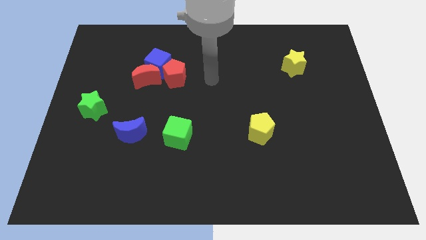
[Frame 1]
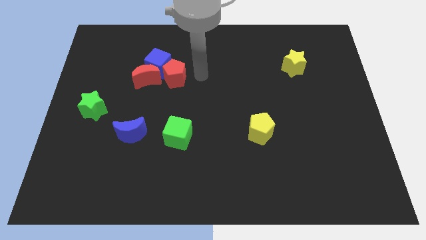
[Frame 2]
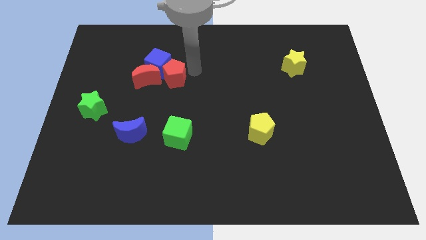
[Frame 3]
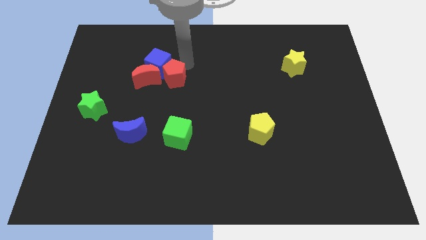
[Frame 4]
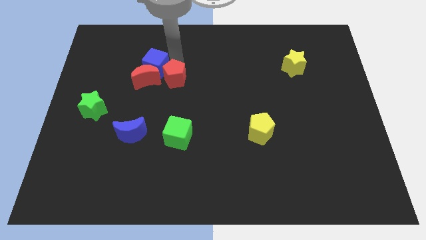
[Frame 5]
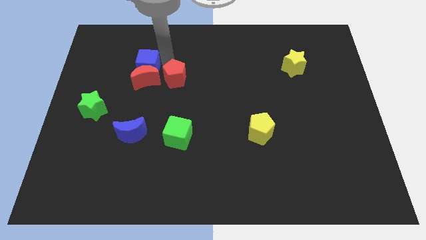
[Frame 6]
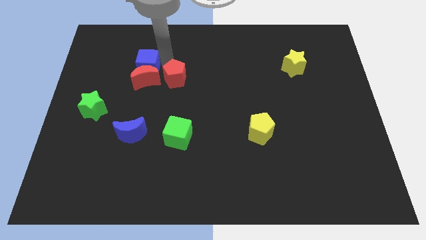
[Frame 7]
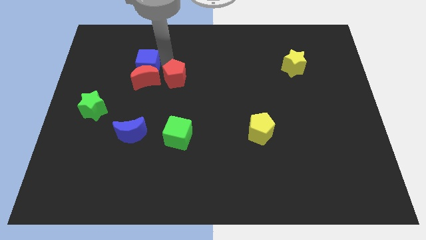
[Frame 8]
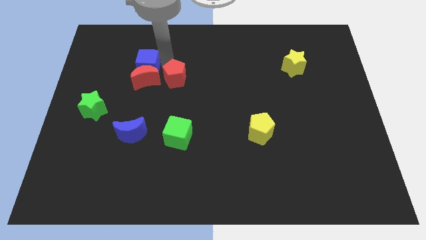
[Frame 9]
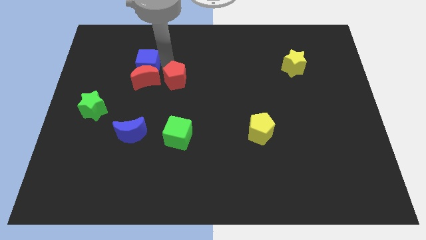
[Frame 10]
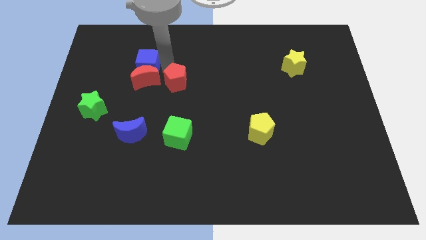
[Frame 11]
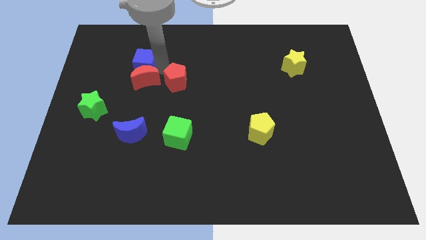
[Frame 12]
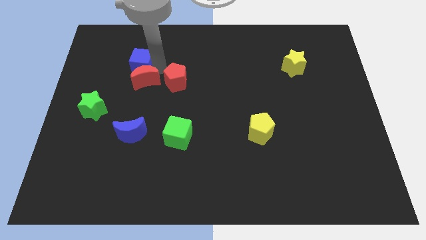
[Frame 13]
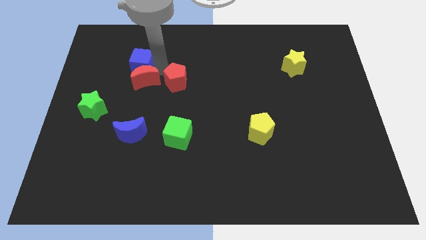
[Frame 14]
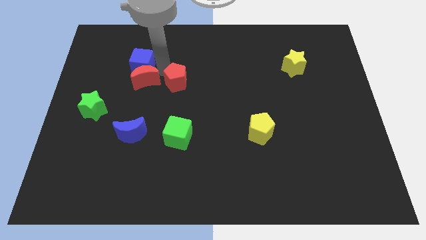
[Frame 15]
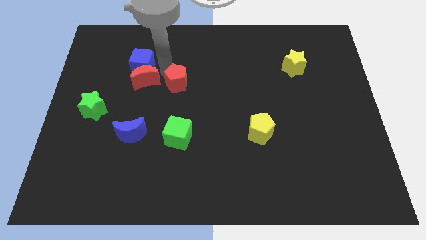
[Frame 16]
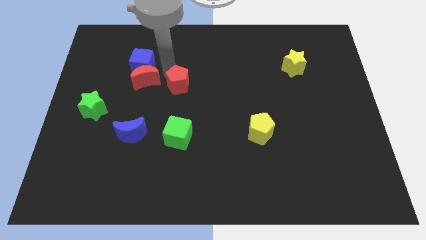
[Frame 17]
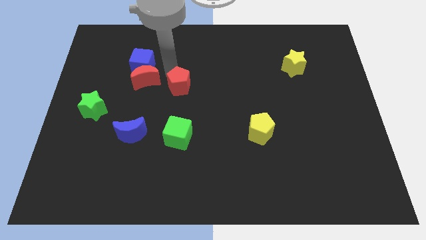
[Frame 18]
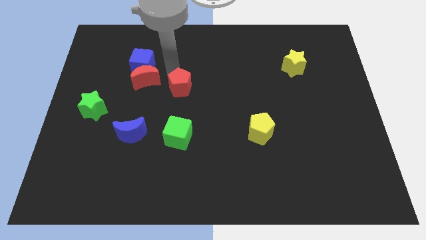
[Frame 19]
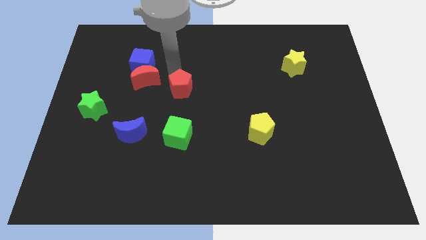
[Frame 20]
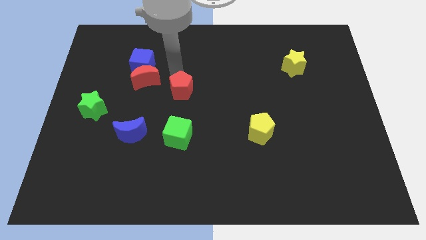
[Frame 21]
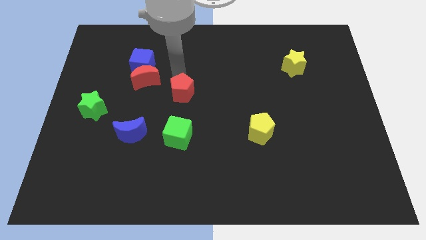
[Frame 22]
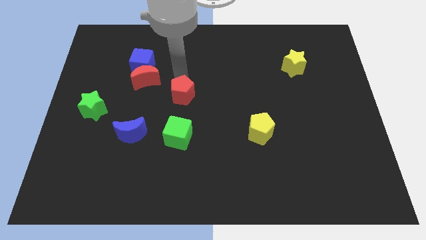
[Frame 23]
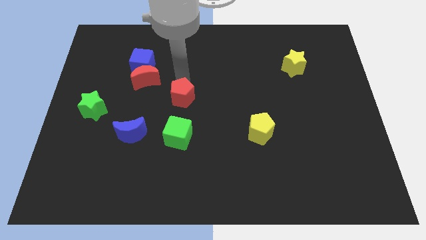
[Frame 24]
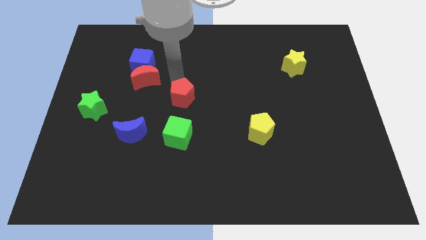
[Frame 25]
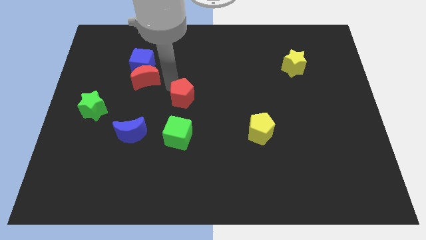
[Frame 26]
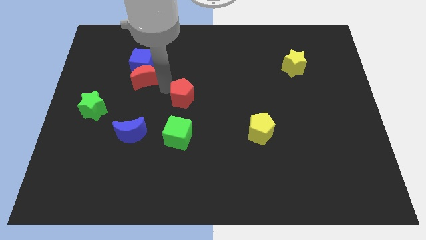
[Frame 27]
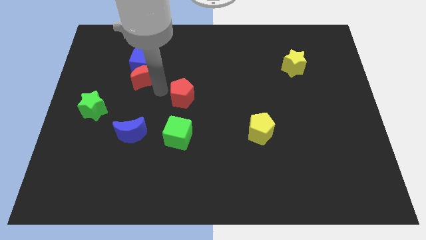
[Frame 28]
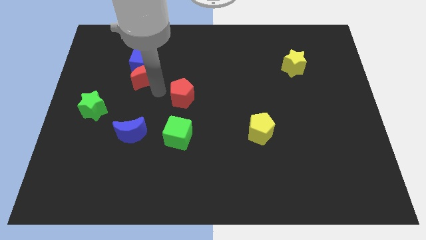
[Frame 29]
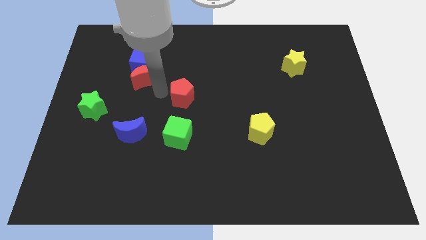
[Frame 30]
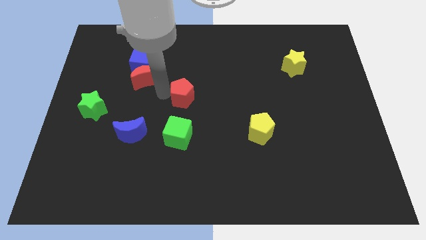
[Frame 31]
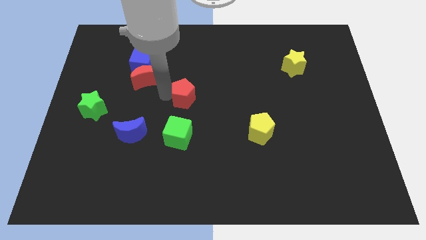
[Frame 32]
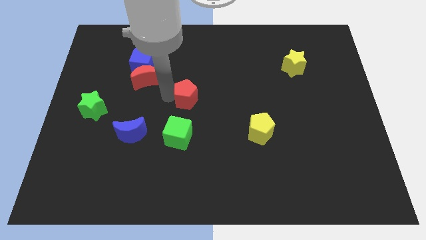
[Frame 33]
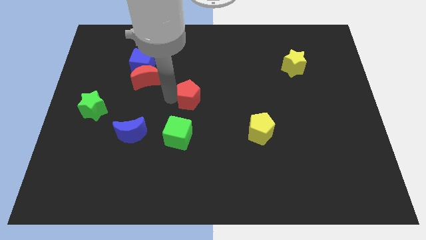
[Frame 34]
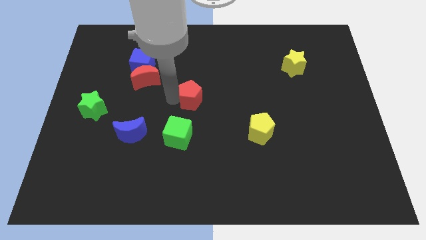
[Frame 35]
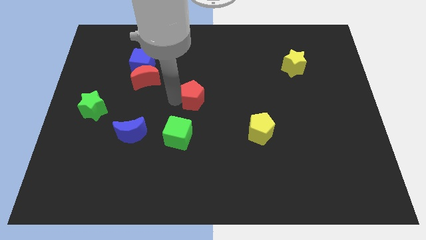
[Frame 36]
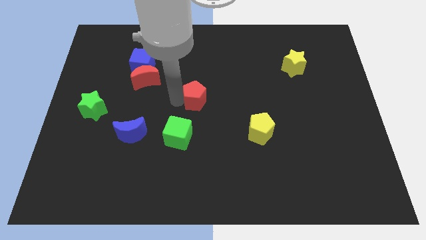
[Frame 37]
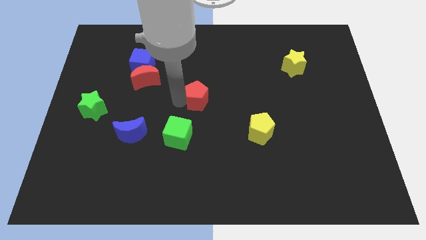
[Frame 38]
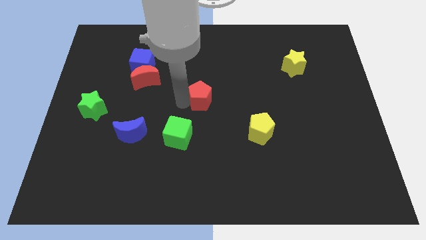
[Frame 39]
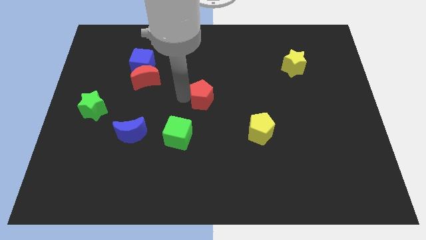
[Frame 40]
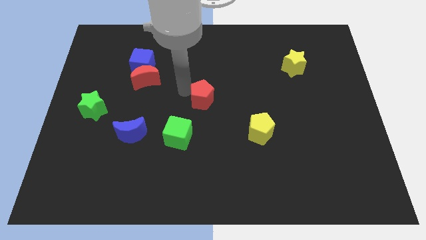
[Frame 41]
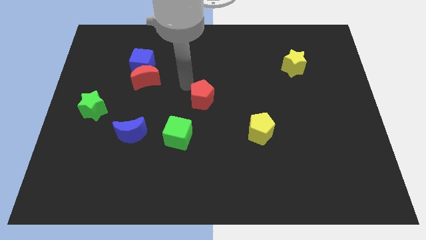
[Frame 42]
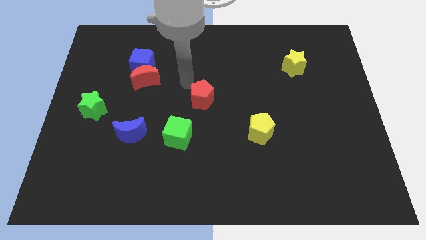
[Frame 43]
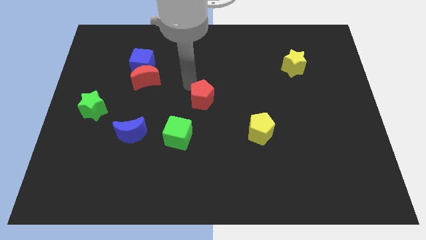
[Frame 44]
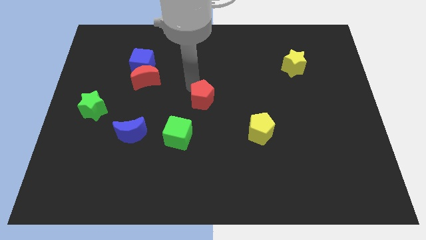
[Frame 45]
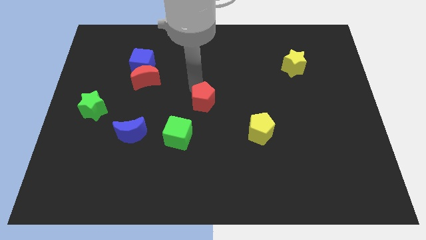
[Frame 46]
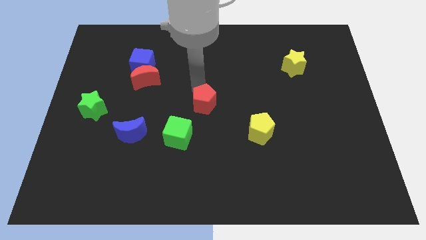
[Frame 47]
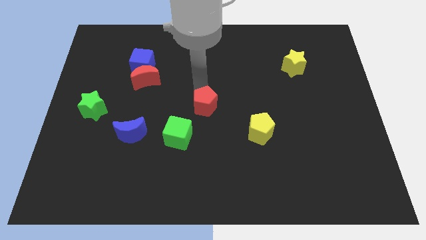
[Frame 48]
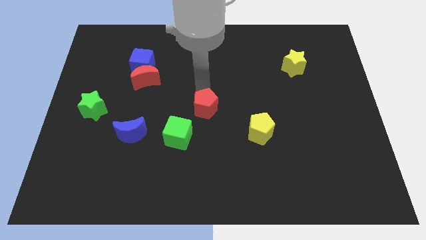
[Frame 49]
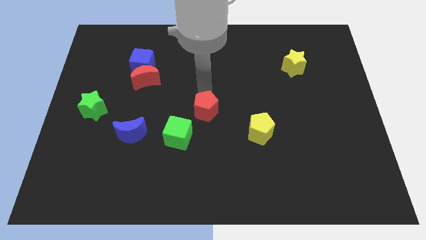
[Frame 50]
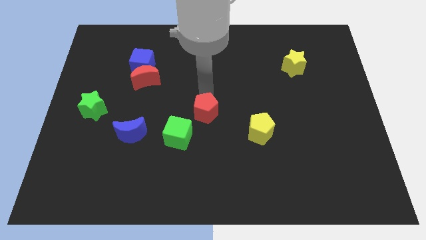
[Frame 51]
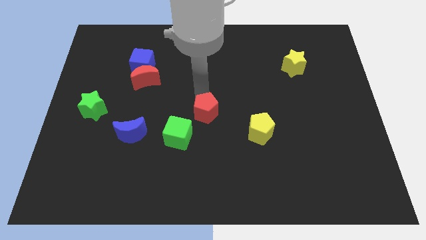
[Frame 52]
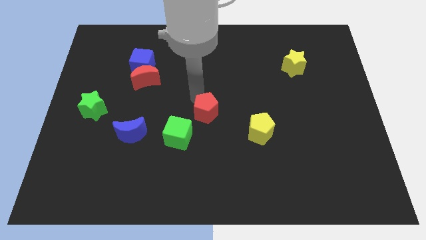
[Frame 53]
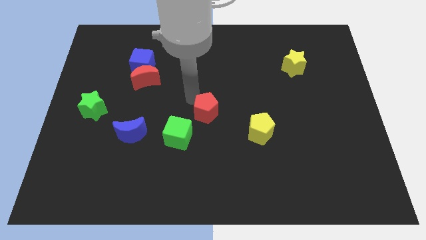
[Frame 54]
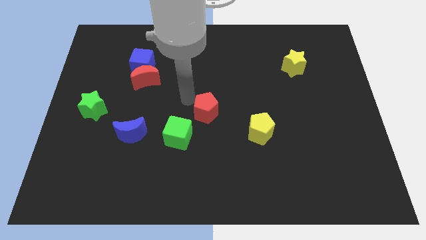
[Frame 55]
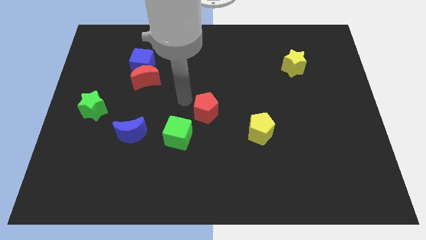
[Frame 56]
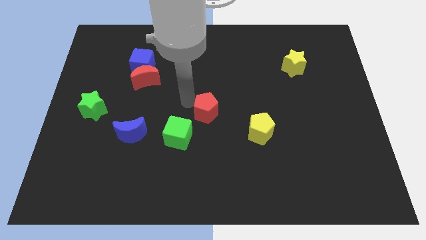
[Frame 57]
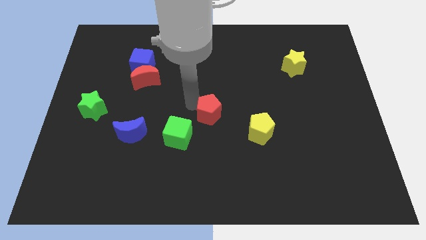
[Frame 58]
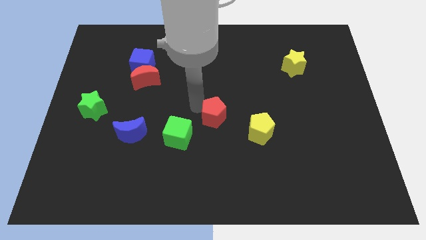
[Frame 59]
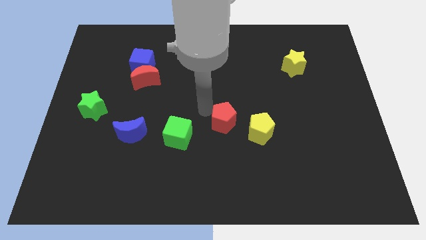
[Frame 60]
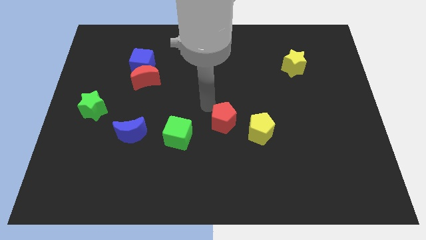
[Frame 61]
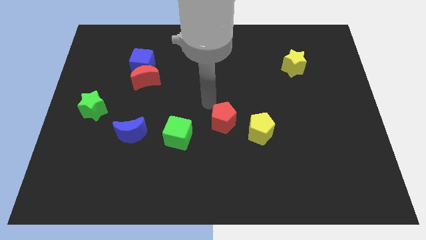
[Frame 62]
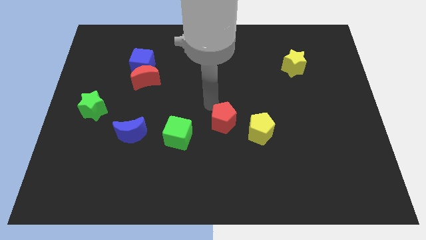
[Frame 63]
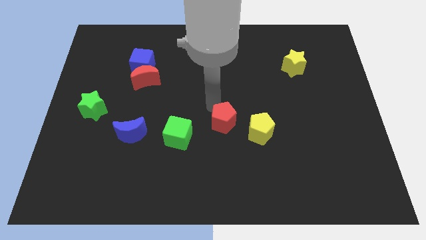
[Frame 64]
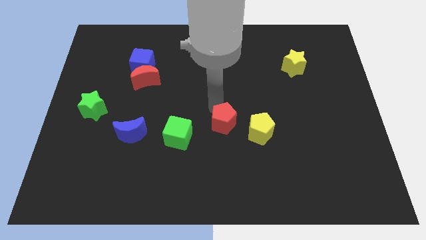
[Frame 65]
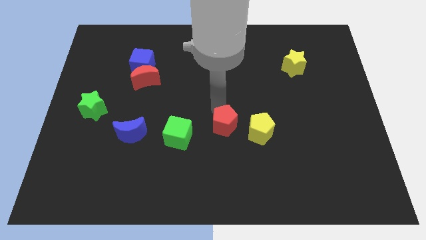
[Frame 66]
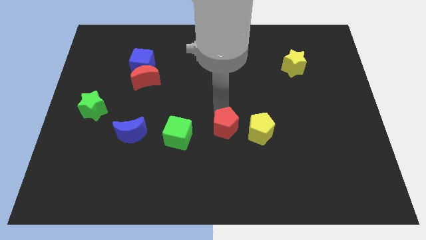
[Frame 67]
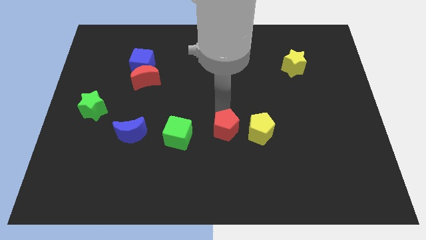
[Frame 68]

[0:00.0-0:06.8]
push the red pentagon downwards and right diagonally

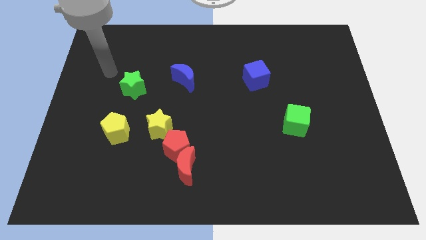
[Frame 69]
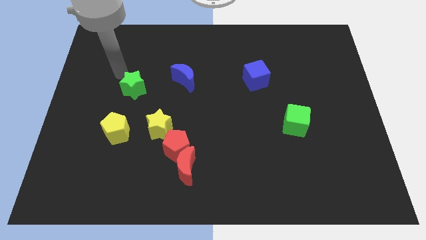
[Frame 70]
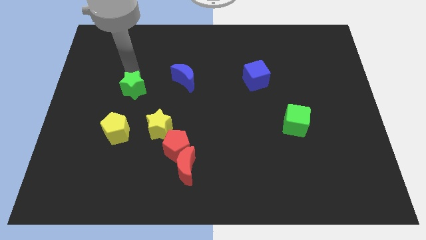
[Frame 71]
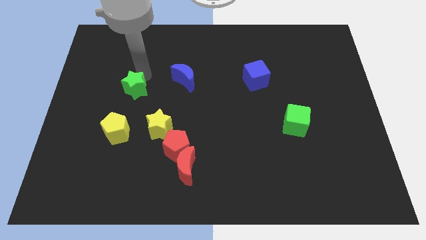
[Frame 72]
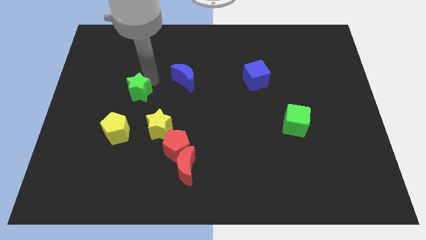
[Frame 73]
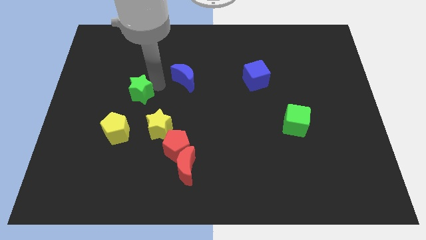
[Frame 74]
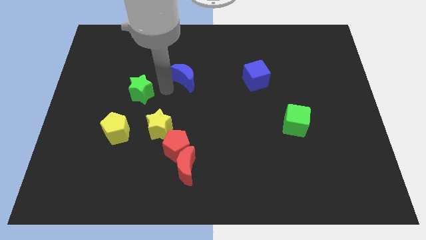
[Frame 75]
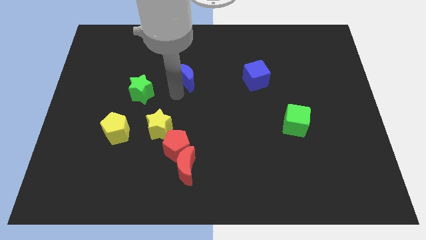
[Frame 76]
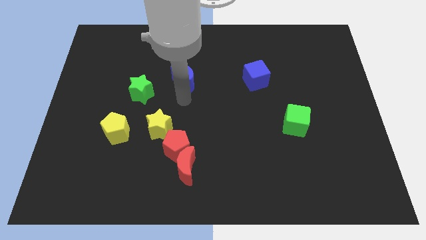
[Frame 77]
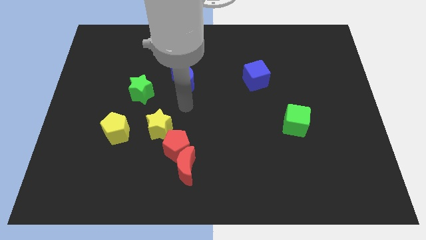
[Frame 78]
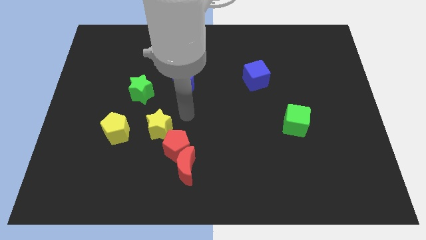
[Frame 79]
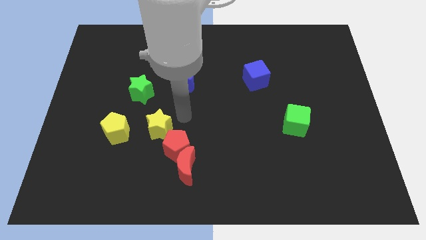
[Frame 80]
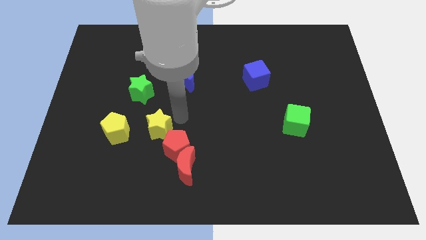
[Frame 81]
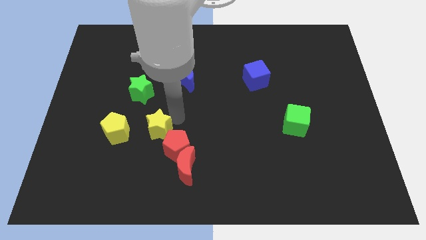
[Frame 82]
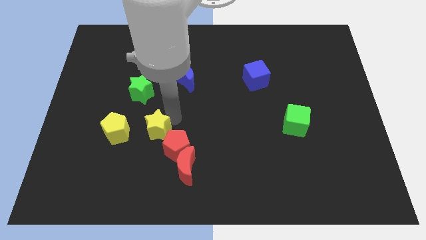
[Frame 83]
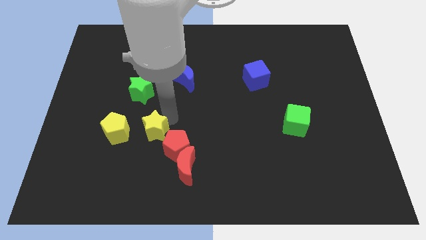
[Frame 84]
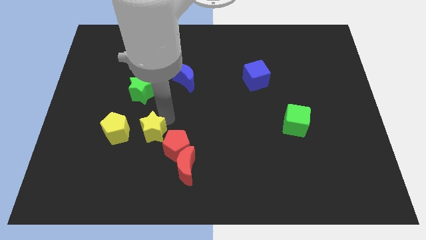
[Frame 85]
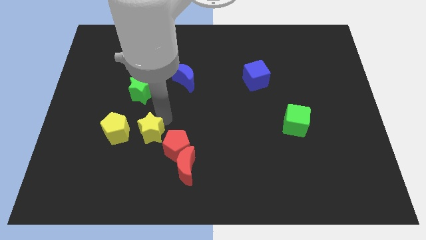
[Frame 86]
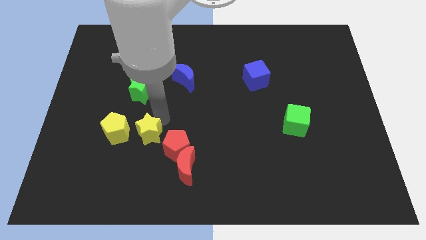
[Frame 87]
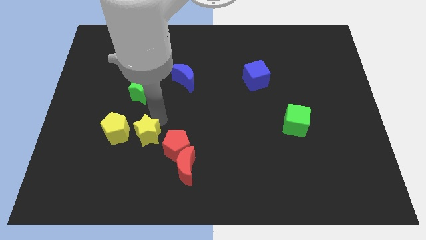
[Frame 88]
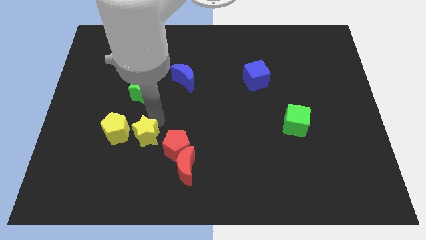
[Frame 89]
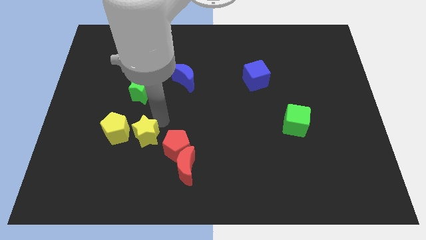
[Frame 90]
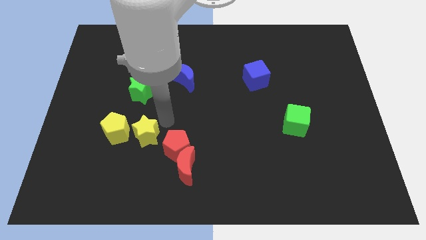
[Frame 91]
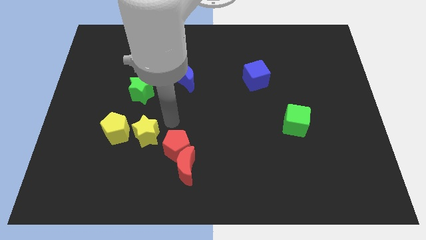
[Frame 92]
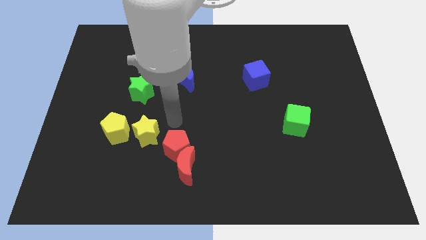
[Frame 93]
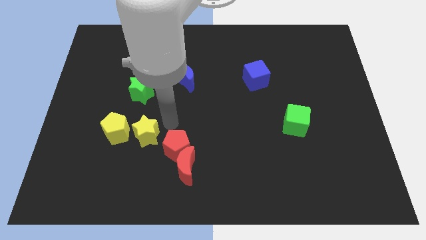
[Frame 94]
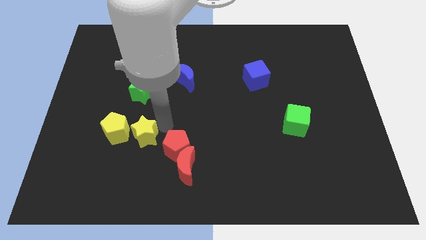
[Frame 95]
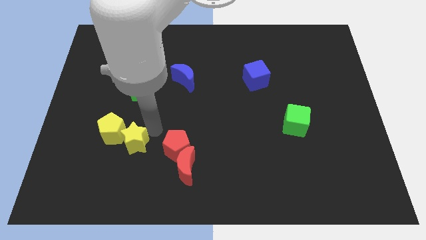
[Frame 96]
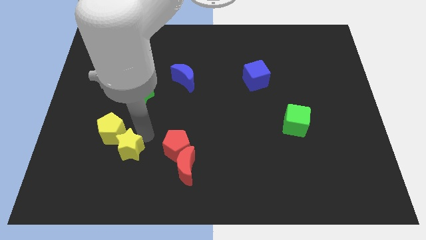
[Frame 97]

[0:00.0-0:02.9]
slide the yellow star a bit downwards and to the left diagonally
